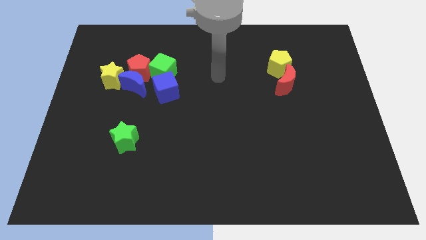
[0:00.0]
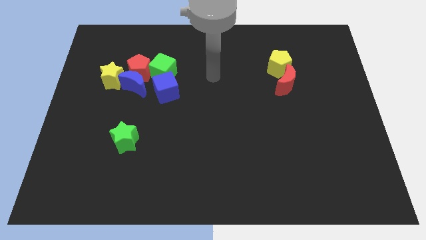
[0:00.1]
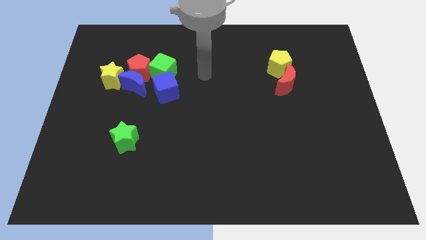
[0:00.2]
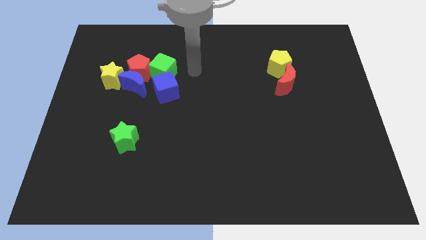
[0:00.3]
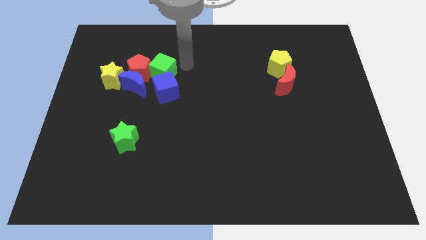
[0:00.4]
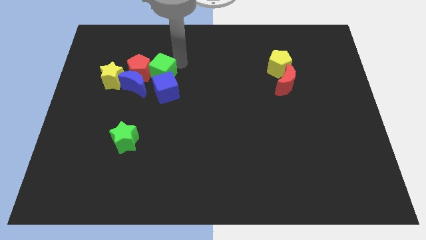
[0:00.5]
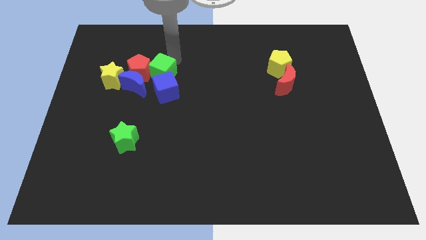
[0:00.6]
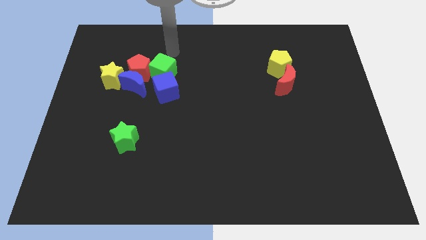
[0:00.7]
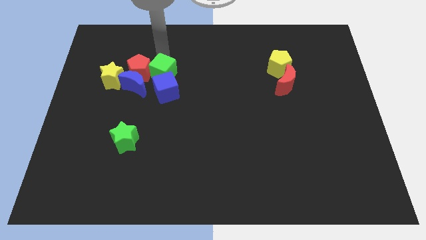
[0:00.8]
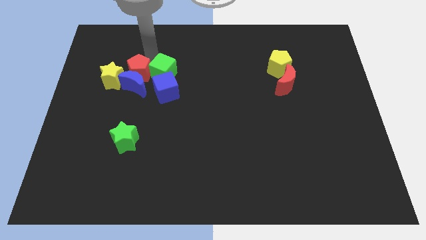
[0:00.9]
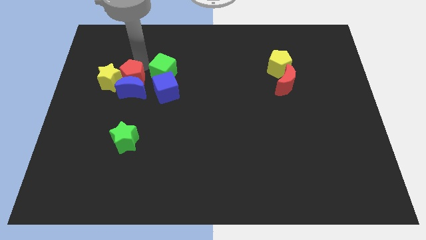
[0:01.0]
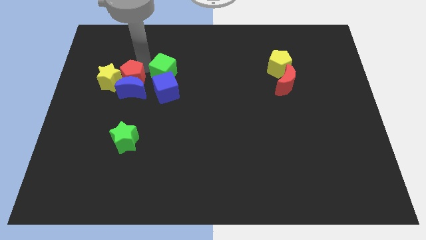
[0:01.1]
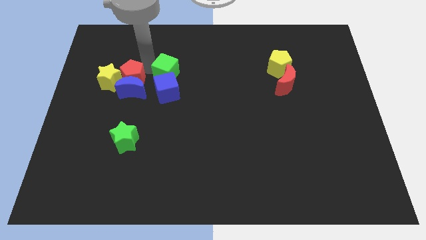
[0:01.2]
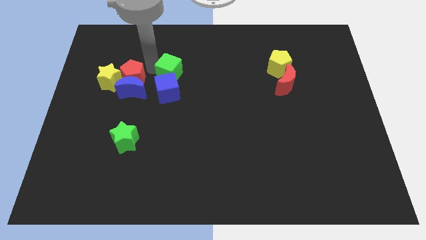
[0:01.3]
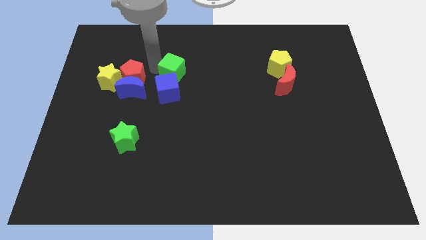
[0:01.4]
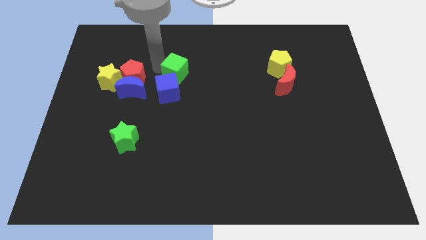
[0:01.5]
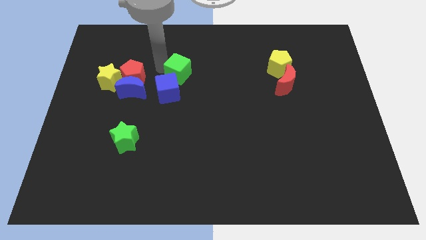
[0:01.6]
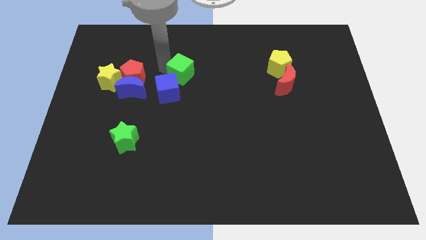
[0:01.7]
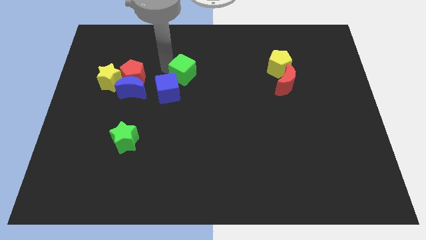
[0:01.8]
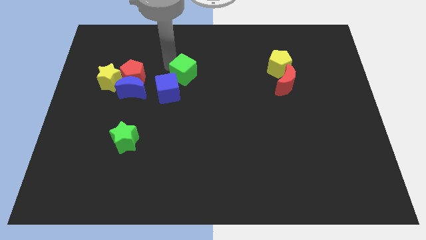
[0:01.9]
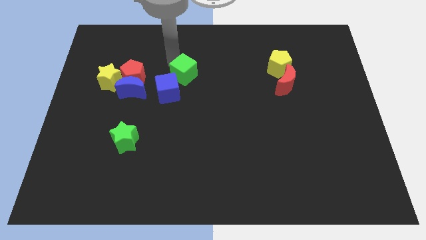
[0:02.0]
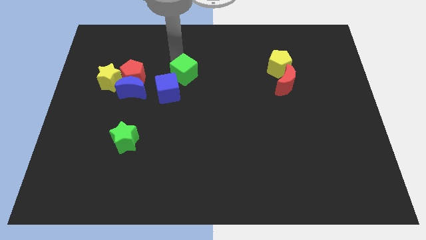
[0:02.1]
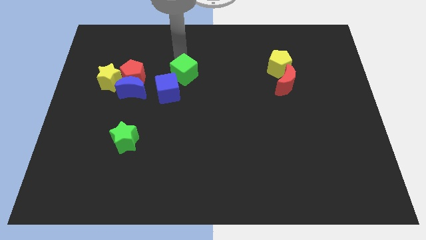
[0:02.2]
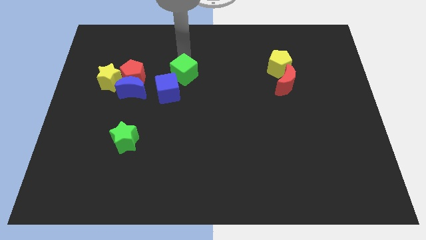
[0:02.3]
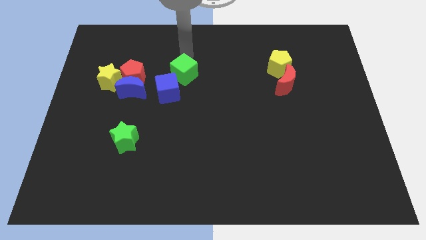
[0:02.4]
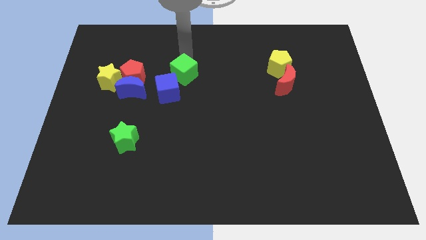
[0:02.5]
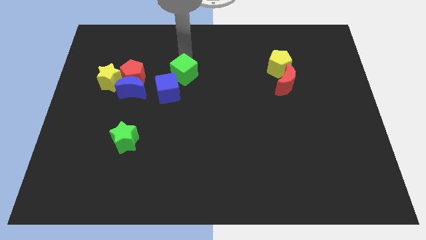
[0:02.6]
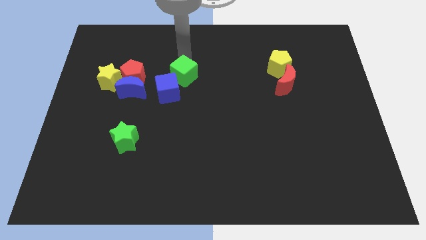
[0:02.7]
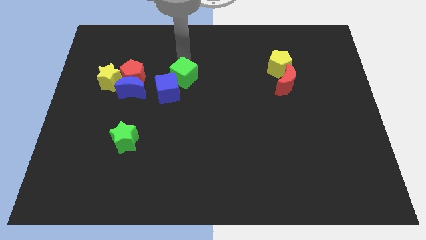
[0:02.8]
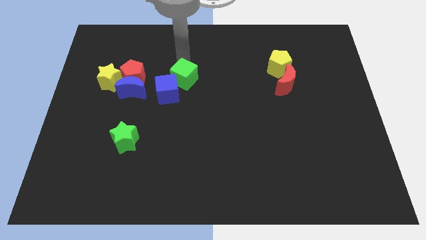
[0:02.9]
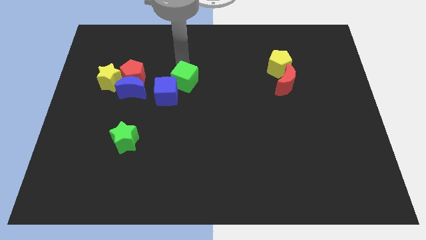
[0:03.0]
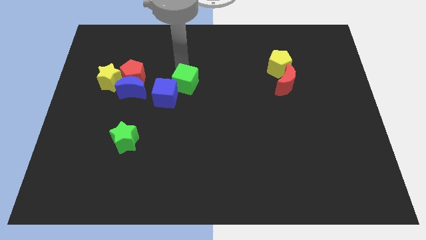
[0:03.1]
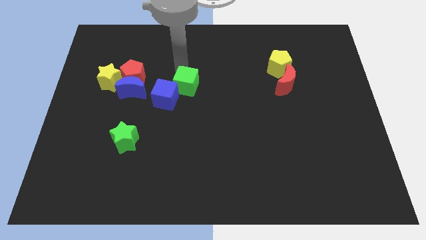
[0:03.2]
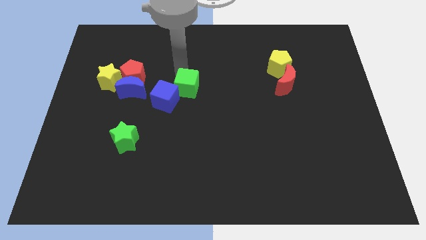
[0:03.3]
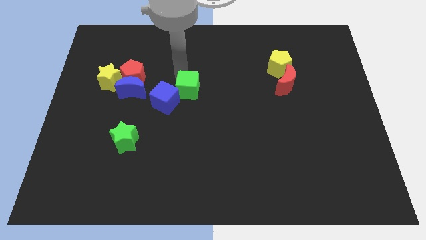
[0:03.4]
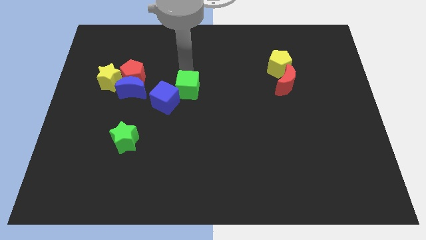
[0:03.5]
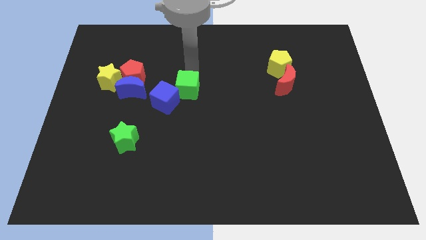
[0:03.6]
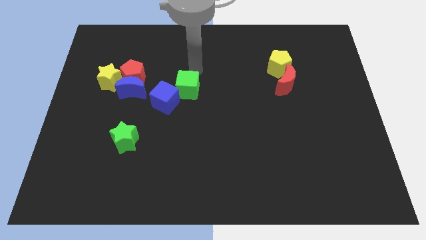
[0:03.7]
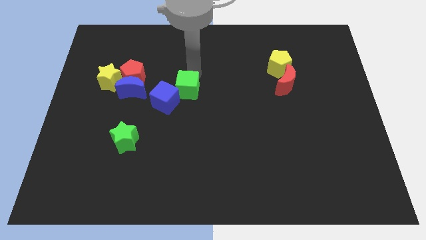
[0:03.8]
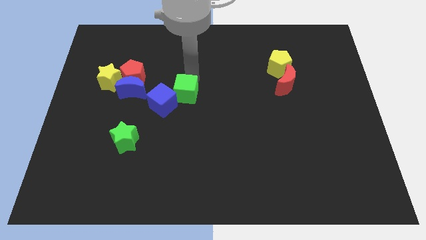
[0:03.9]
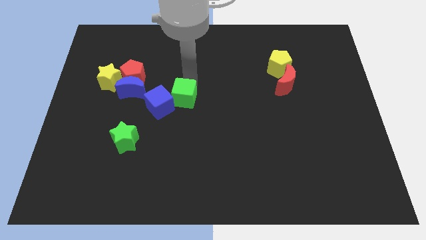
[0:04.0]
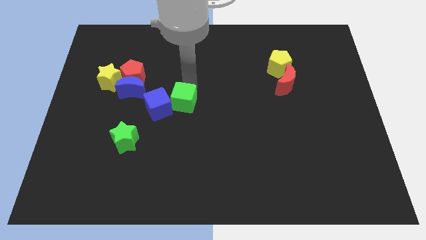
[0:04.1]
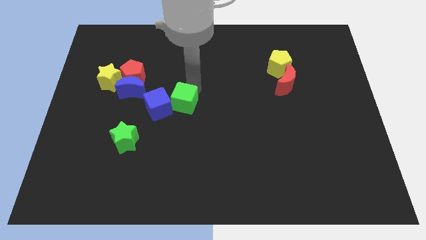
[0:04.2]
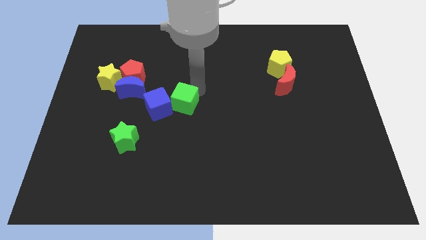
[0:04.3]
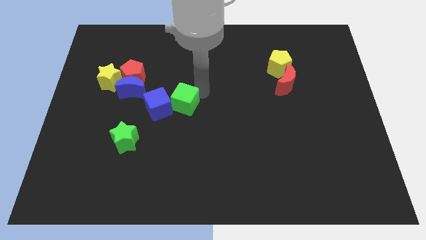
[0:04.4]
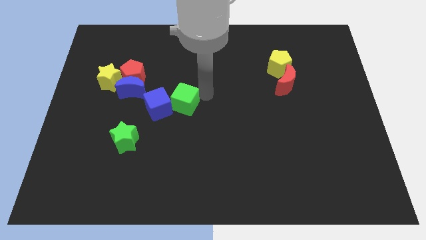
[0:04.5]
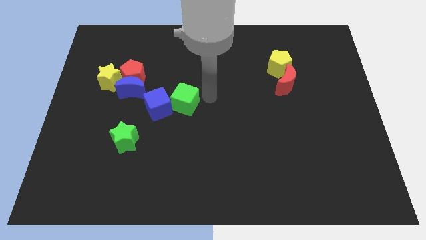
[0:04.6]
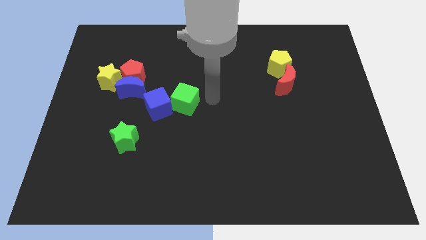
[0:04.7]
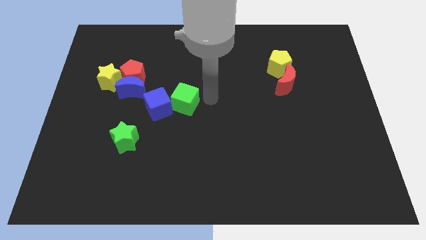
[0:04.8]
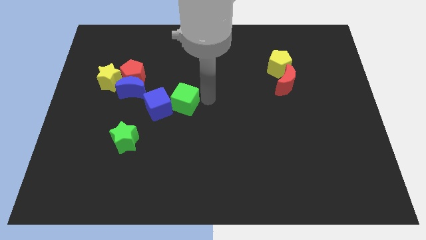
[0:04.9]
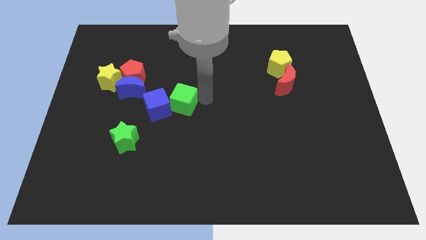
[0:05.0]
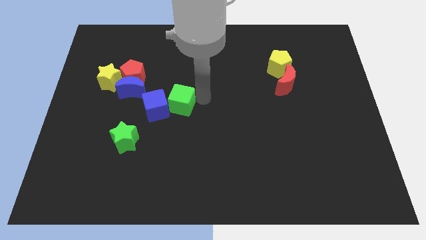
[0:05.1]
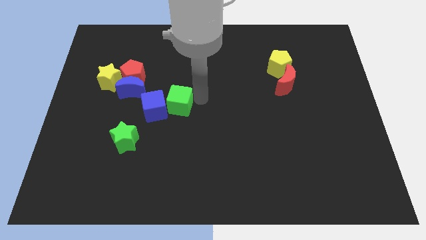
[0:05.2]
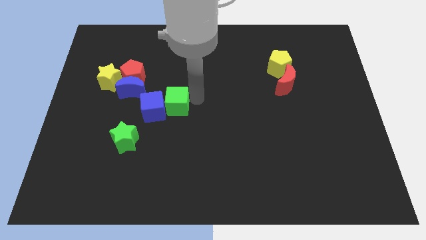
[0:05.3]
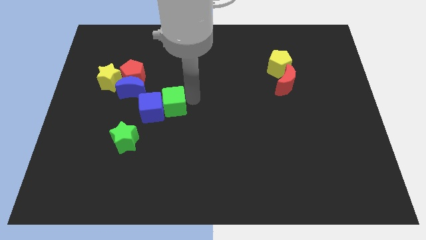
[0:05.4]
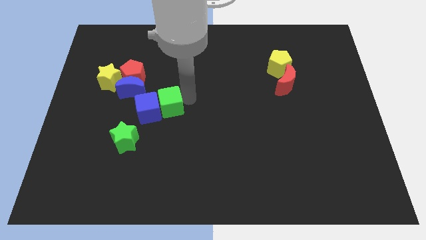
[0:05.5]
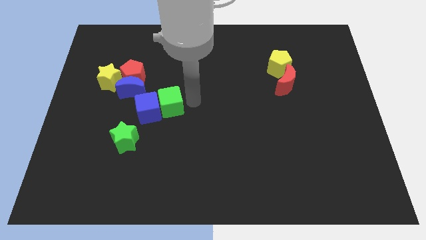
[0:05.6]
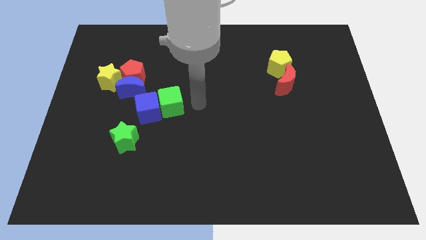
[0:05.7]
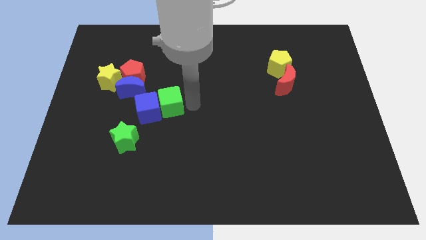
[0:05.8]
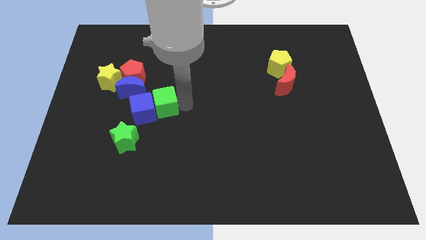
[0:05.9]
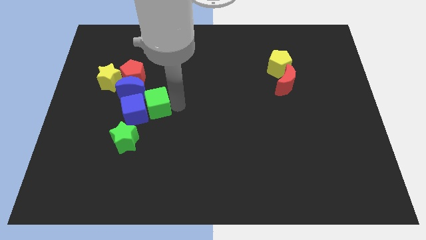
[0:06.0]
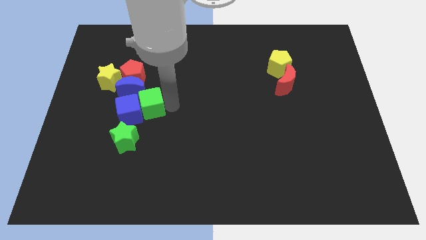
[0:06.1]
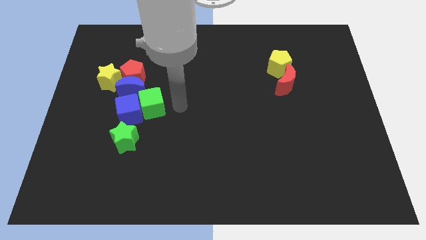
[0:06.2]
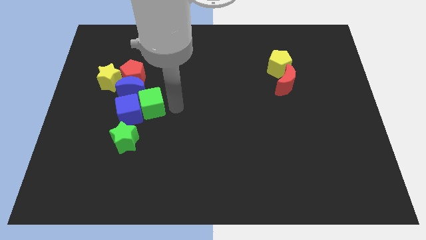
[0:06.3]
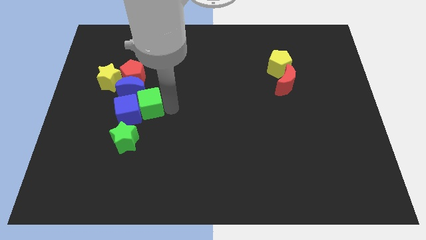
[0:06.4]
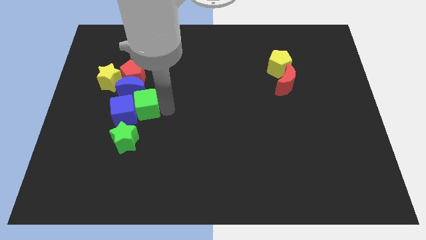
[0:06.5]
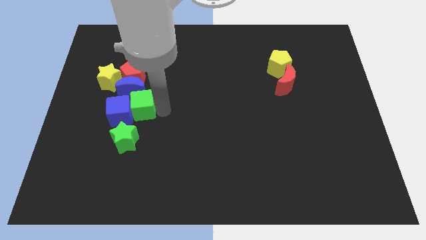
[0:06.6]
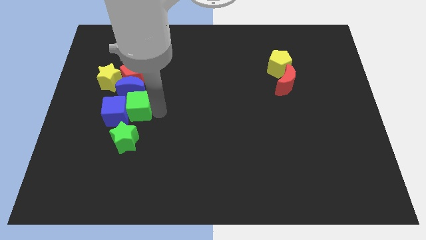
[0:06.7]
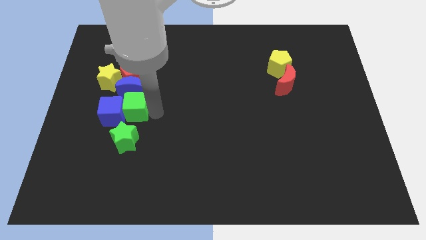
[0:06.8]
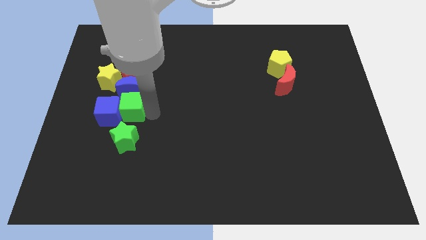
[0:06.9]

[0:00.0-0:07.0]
move the green cube diagonally down and to the left of the blue moon

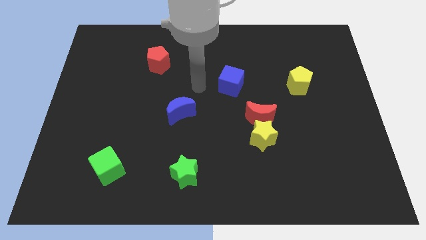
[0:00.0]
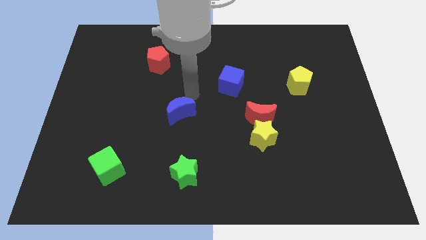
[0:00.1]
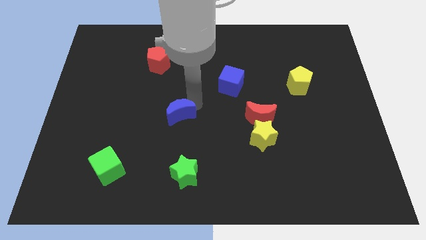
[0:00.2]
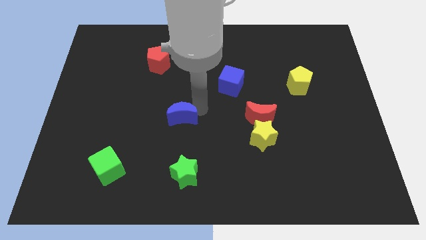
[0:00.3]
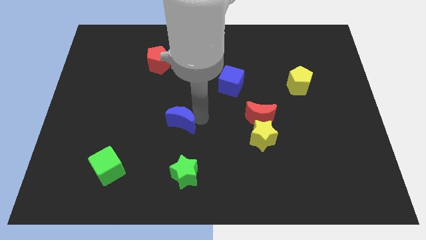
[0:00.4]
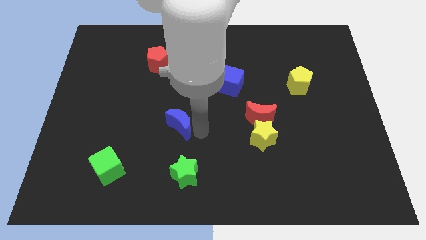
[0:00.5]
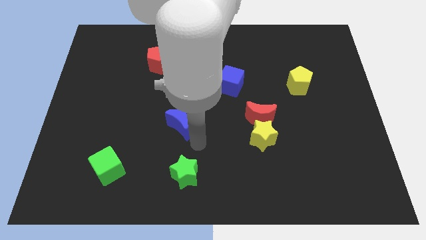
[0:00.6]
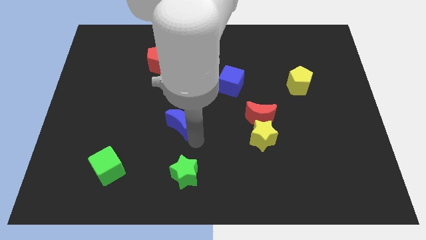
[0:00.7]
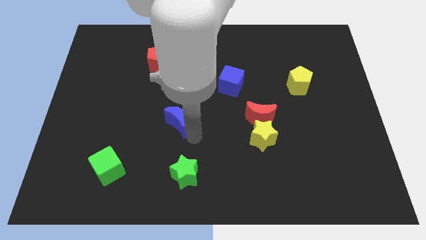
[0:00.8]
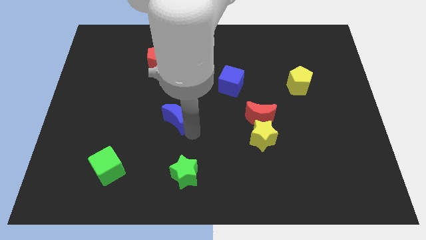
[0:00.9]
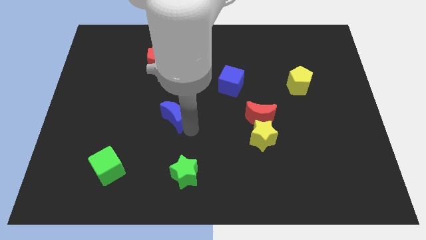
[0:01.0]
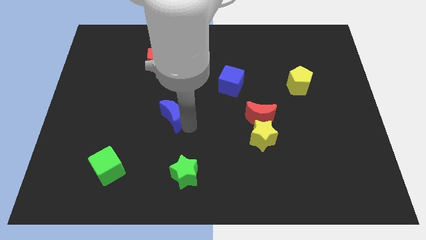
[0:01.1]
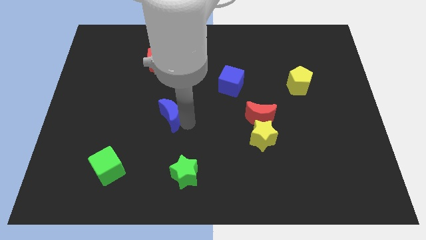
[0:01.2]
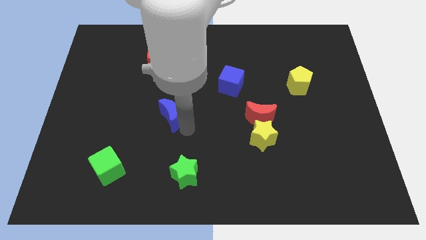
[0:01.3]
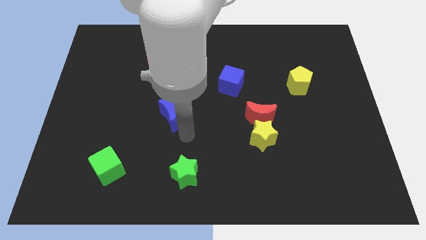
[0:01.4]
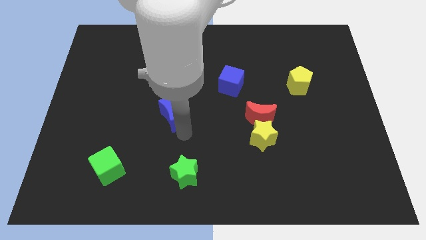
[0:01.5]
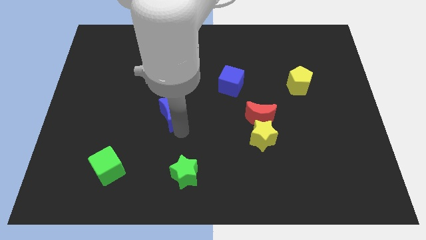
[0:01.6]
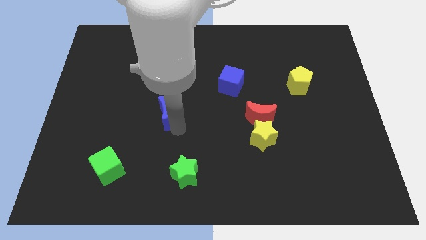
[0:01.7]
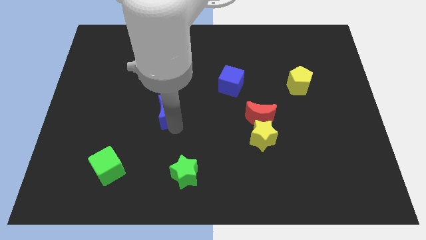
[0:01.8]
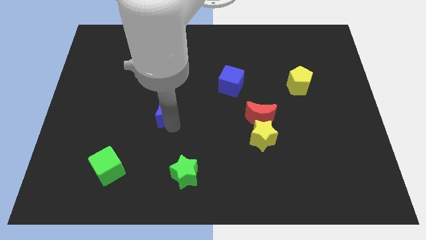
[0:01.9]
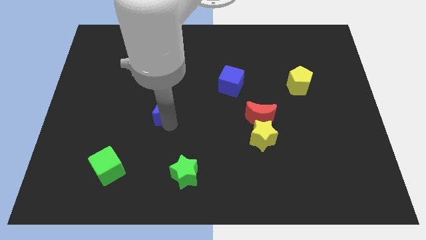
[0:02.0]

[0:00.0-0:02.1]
slide the blue moon below the red pentagon
